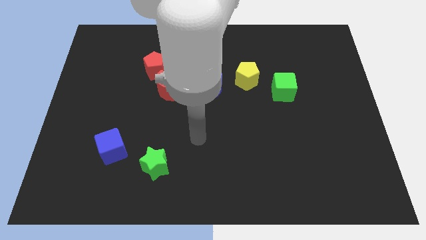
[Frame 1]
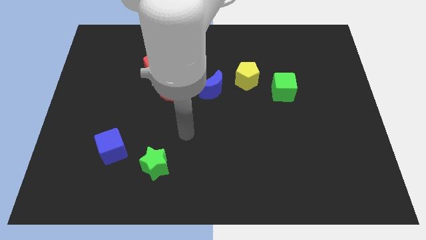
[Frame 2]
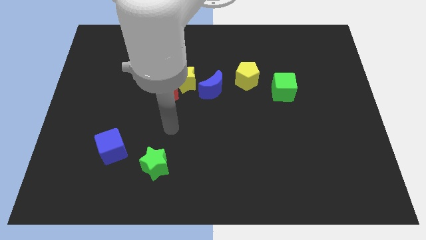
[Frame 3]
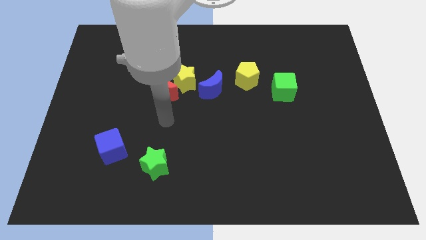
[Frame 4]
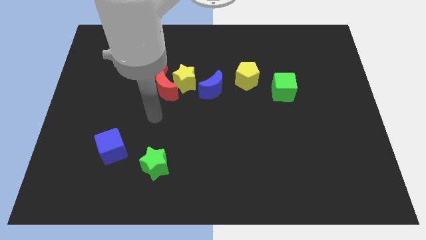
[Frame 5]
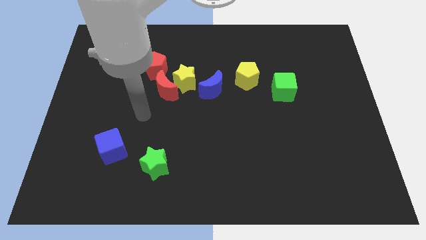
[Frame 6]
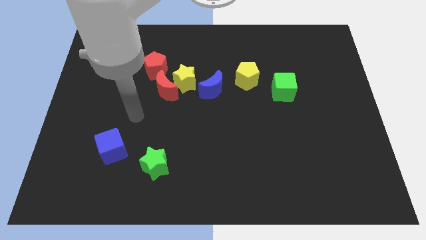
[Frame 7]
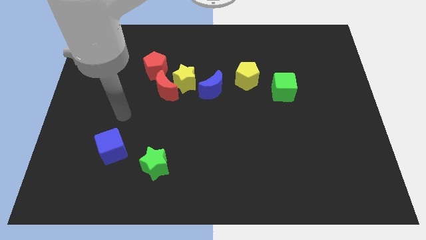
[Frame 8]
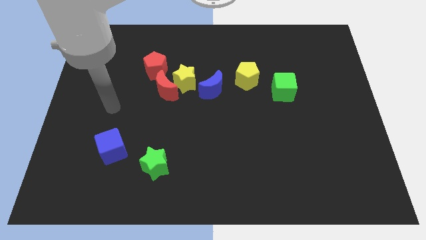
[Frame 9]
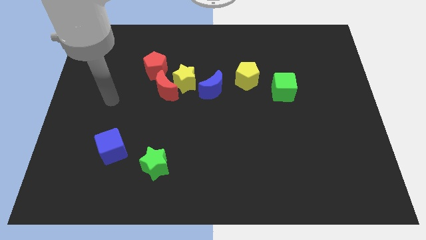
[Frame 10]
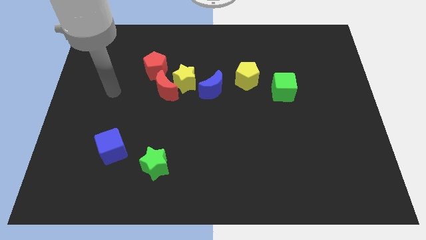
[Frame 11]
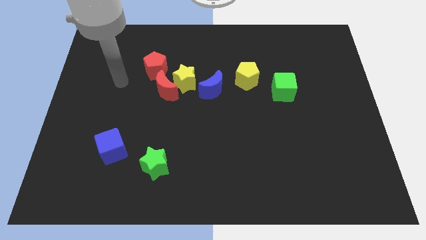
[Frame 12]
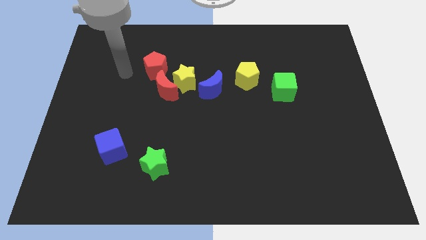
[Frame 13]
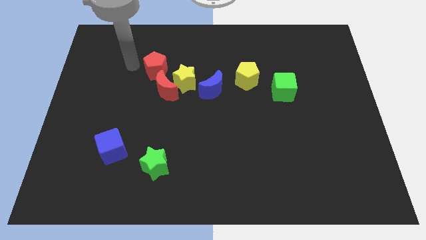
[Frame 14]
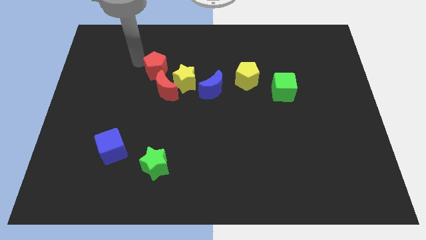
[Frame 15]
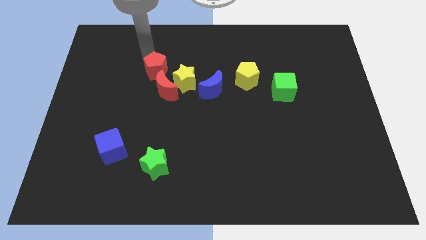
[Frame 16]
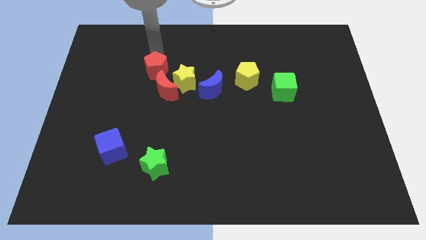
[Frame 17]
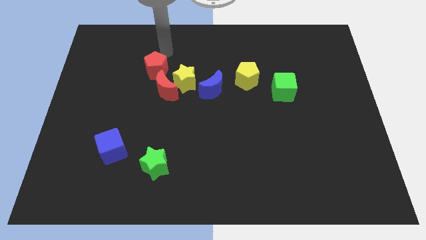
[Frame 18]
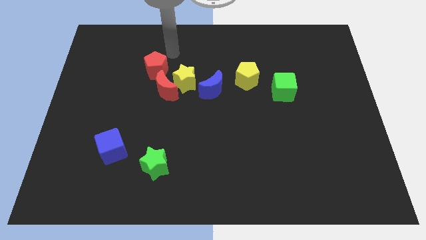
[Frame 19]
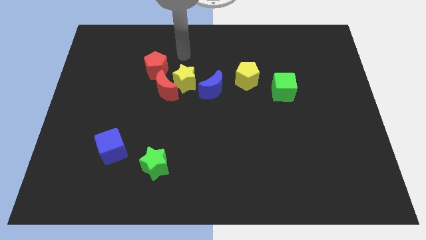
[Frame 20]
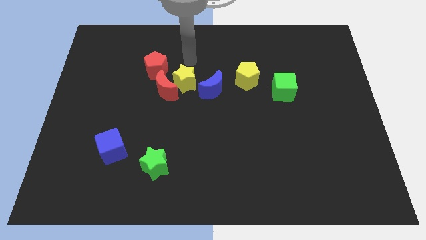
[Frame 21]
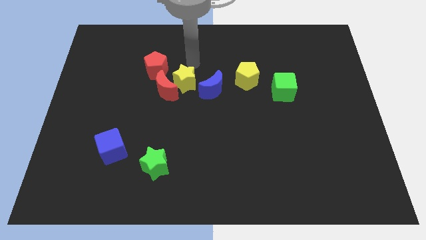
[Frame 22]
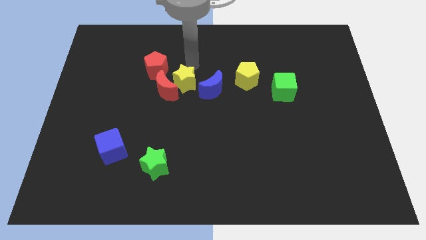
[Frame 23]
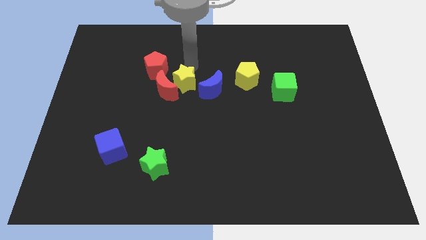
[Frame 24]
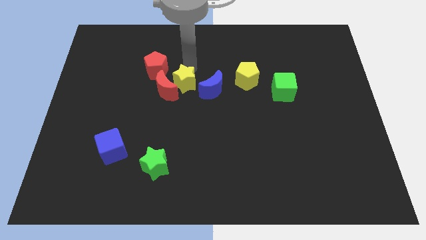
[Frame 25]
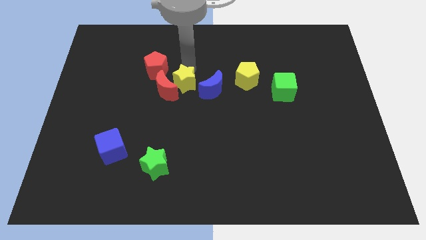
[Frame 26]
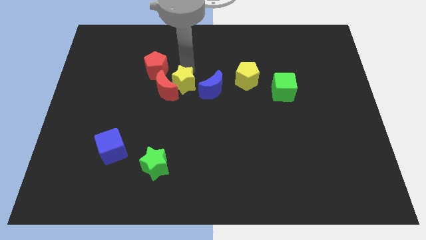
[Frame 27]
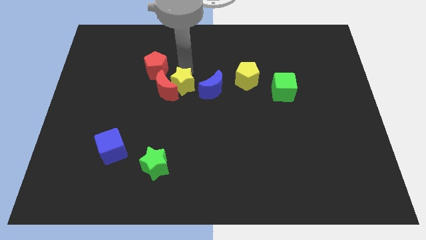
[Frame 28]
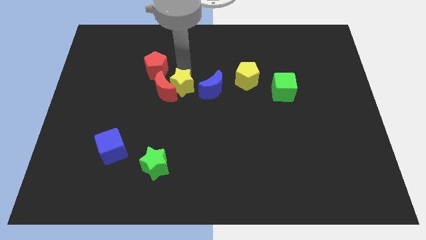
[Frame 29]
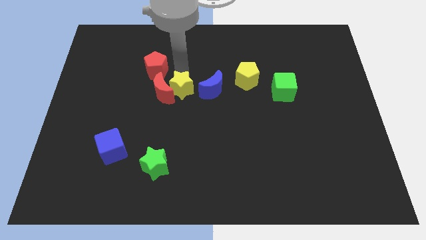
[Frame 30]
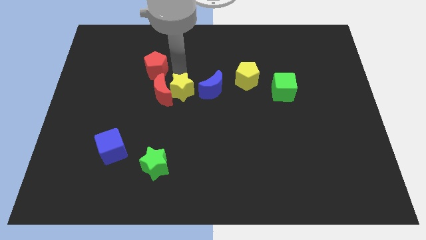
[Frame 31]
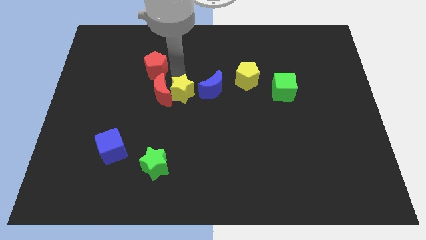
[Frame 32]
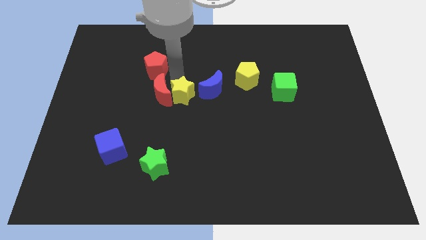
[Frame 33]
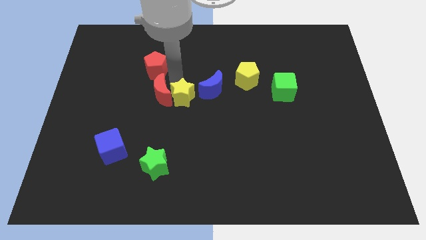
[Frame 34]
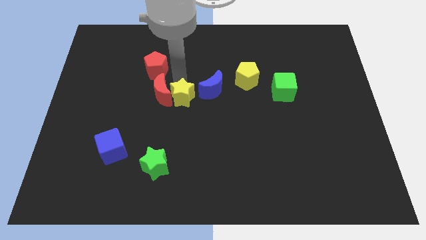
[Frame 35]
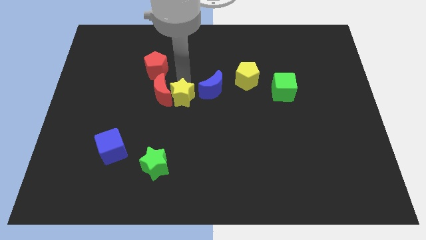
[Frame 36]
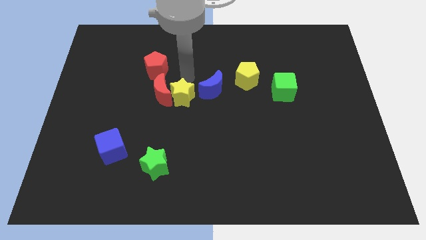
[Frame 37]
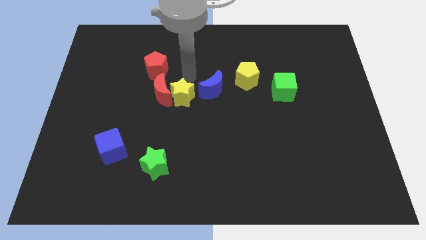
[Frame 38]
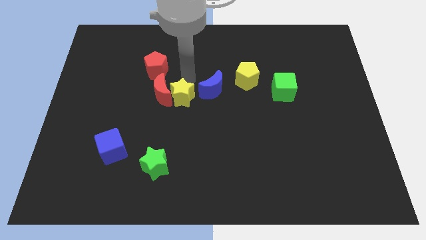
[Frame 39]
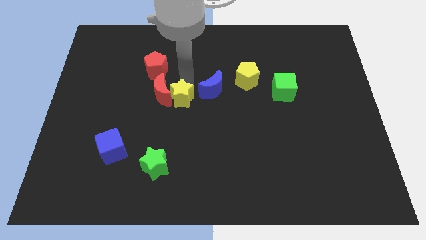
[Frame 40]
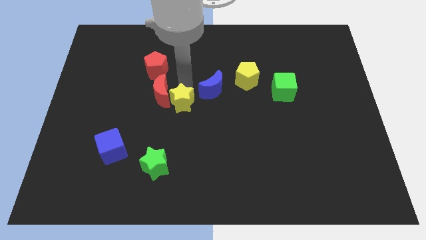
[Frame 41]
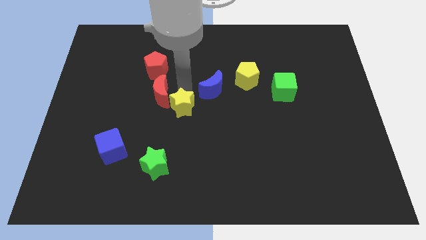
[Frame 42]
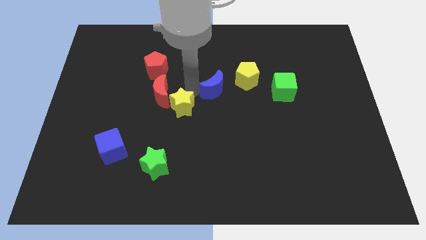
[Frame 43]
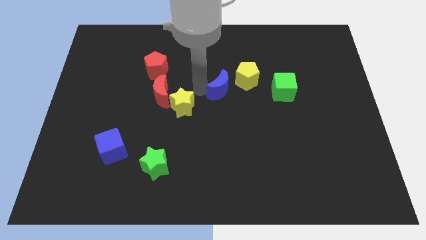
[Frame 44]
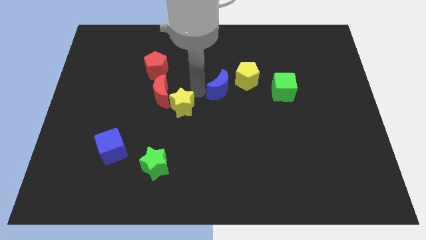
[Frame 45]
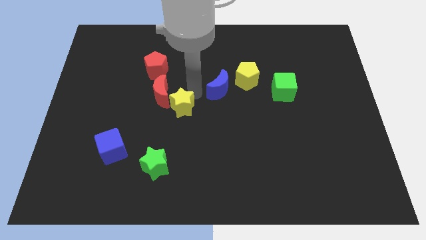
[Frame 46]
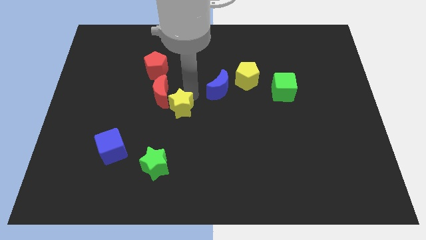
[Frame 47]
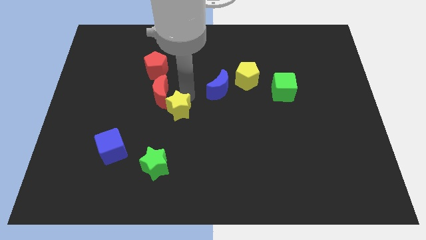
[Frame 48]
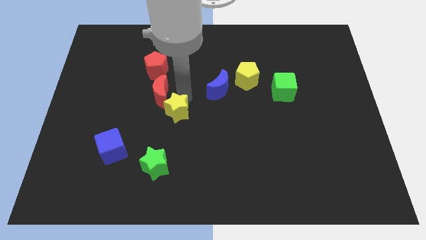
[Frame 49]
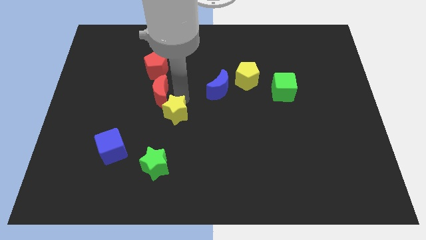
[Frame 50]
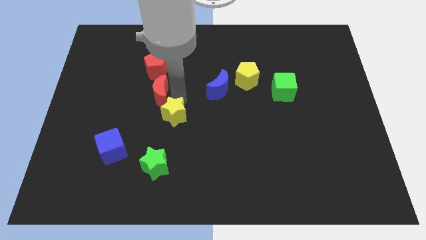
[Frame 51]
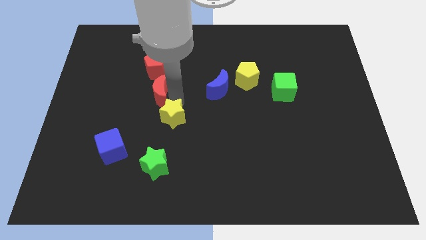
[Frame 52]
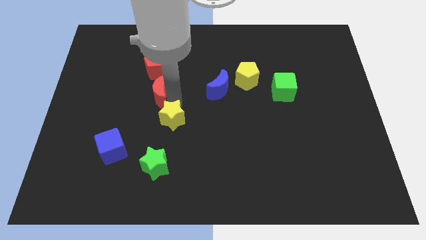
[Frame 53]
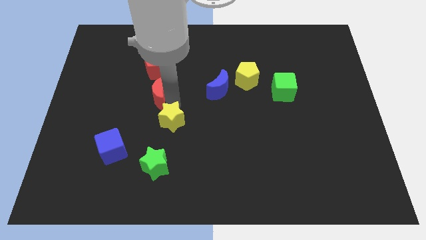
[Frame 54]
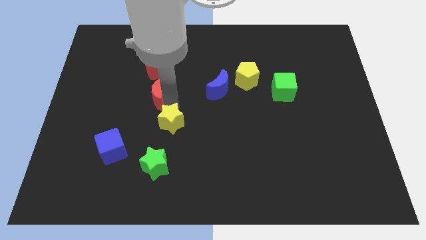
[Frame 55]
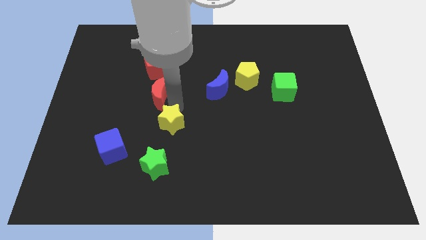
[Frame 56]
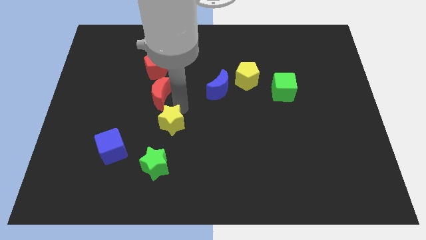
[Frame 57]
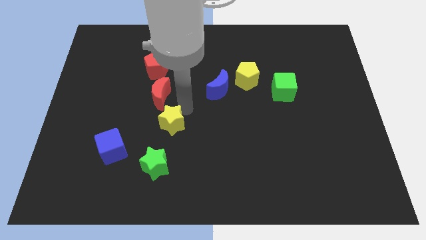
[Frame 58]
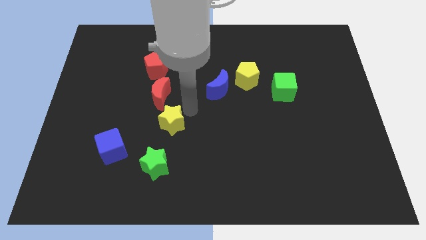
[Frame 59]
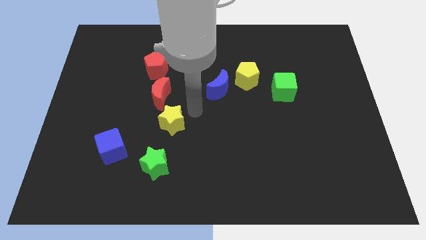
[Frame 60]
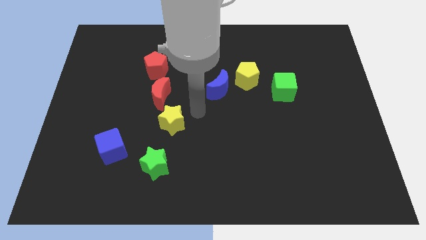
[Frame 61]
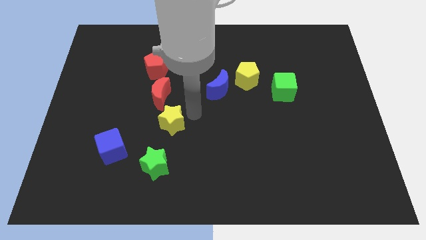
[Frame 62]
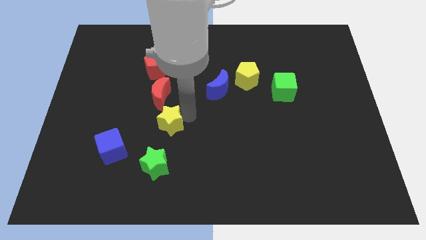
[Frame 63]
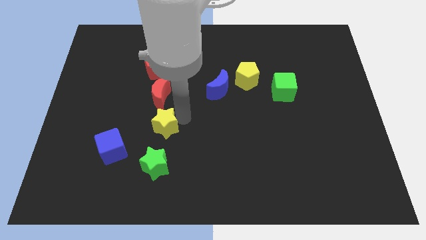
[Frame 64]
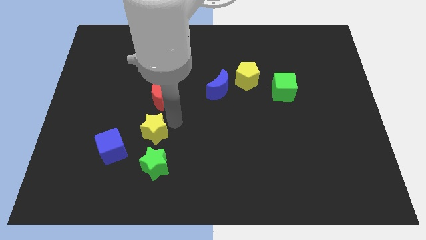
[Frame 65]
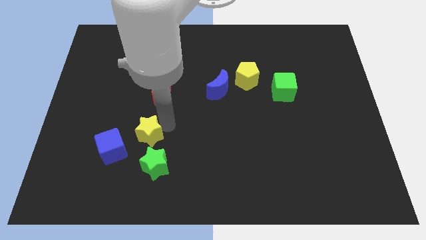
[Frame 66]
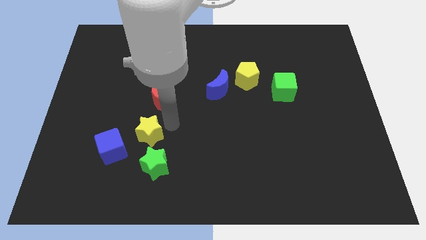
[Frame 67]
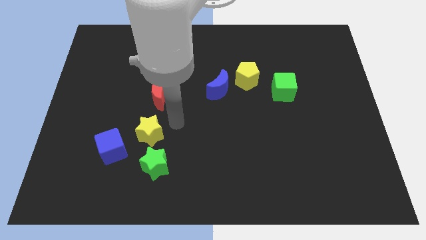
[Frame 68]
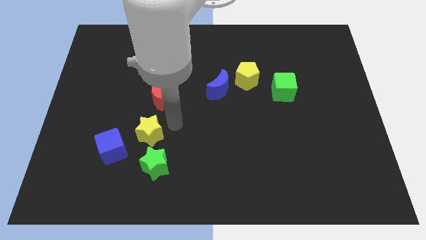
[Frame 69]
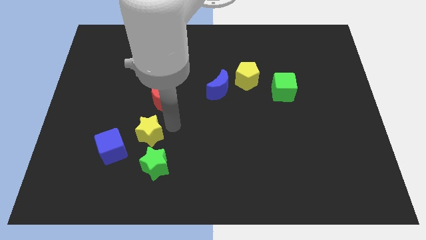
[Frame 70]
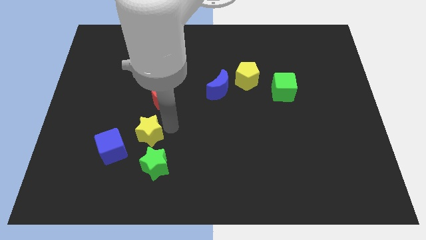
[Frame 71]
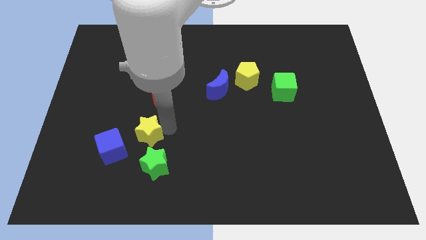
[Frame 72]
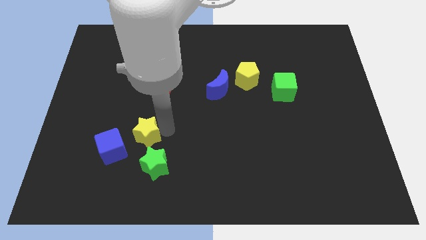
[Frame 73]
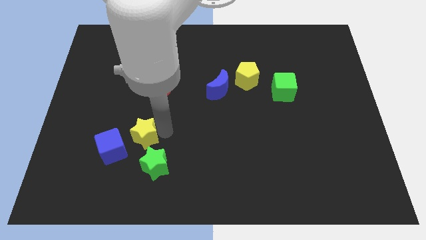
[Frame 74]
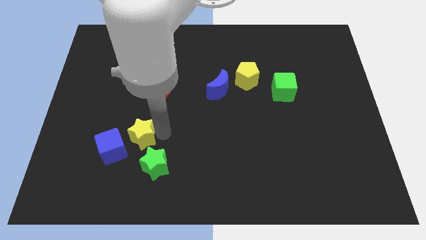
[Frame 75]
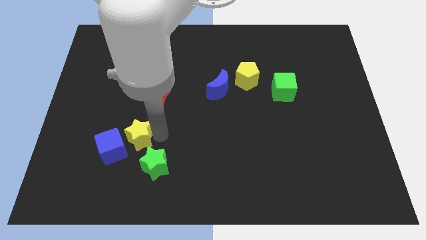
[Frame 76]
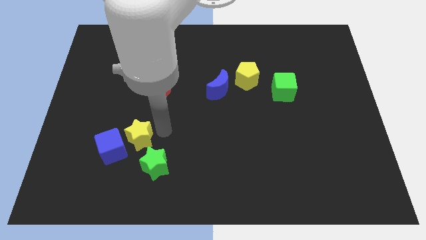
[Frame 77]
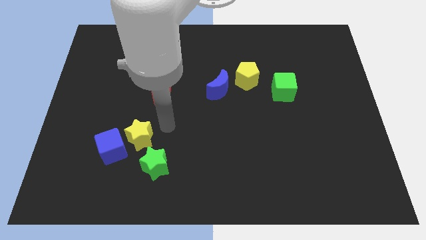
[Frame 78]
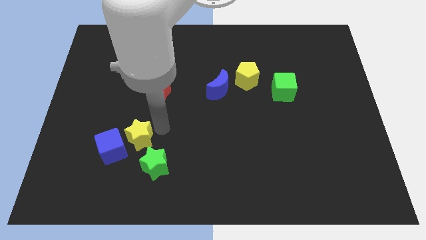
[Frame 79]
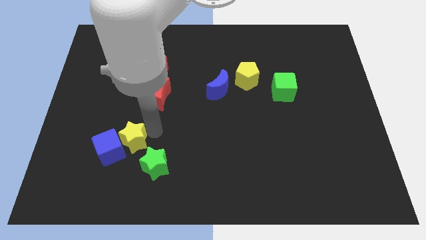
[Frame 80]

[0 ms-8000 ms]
slide the yellow star next to the blue cube
